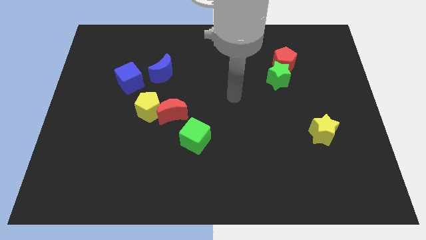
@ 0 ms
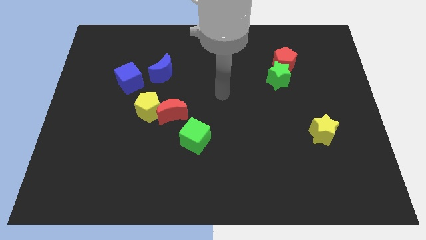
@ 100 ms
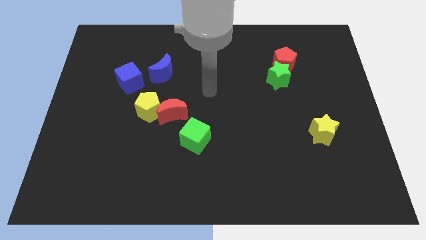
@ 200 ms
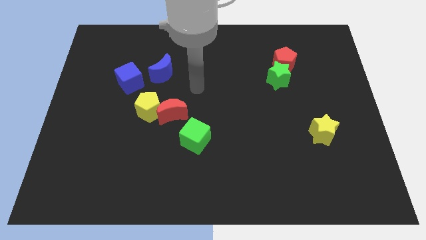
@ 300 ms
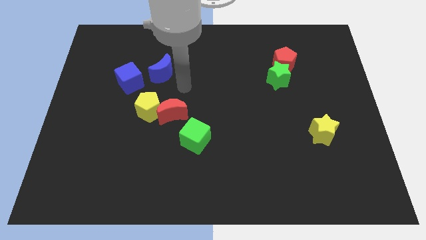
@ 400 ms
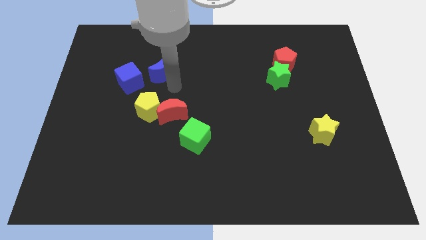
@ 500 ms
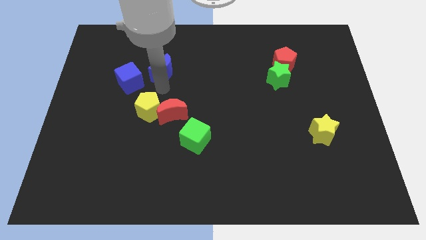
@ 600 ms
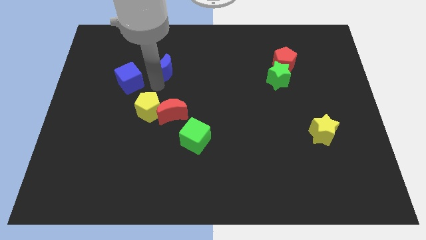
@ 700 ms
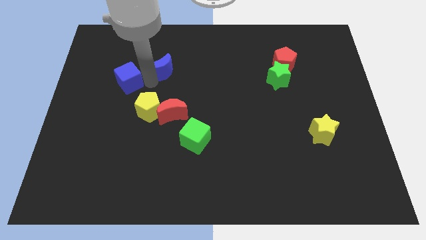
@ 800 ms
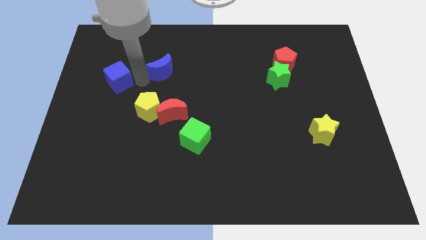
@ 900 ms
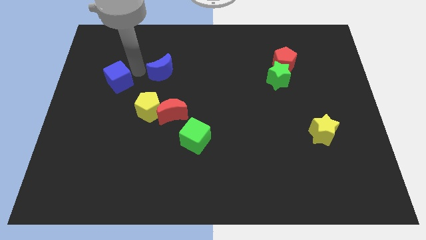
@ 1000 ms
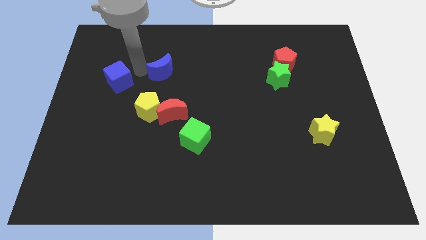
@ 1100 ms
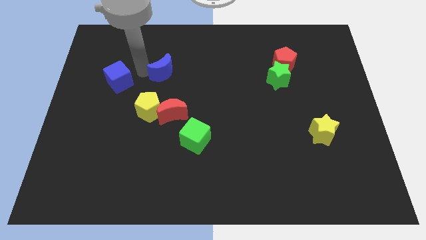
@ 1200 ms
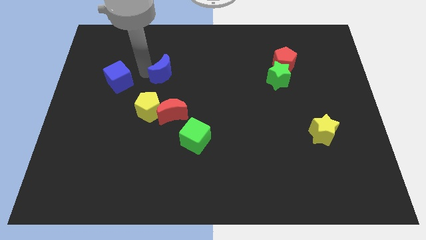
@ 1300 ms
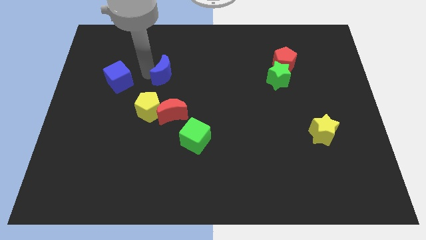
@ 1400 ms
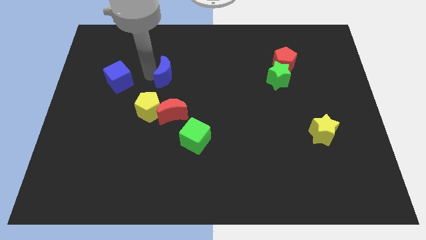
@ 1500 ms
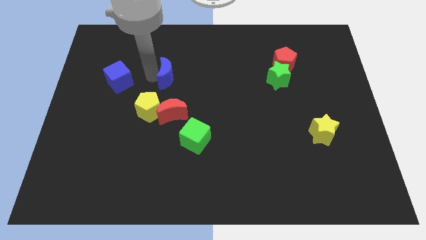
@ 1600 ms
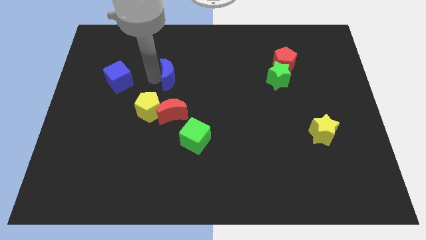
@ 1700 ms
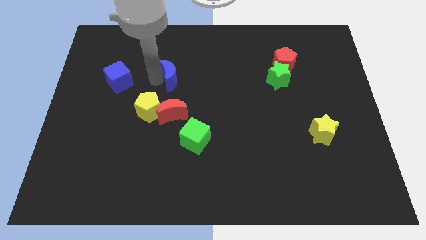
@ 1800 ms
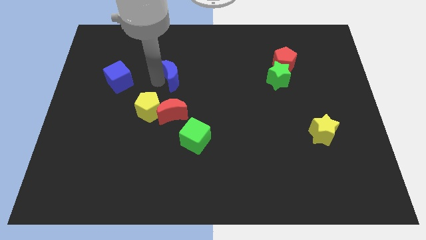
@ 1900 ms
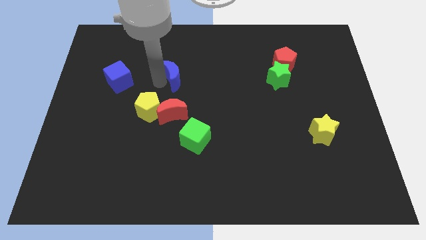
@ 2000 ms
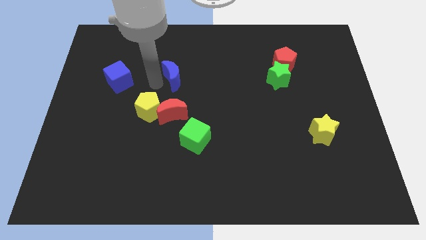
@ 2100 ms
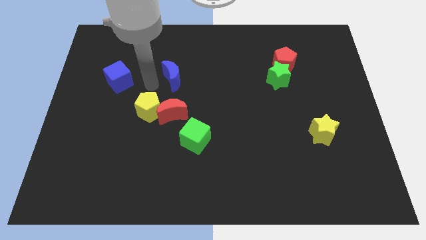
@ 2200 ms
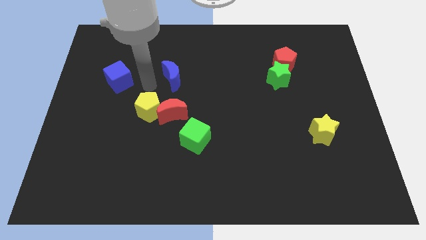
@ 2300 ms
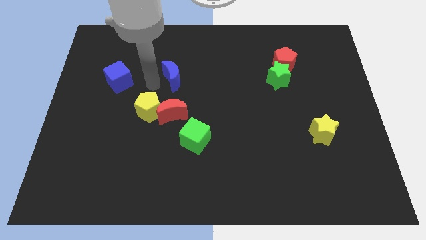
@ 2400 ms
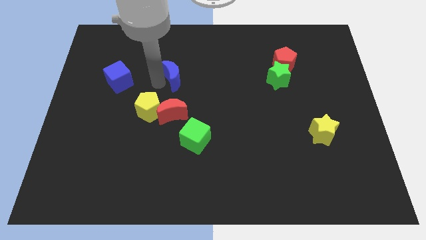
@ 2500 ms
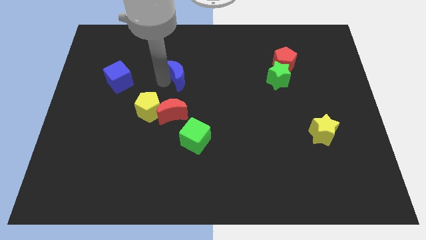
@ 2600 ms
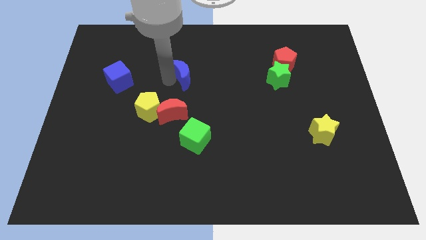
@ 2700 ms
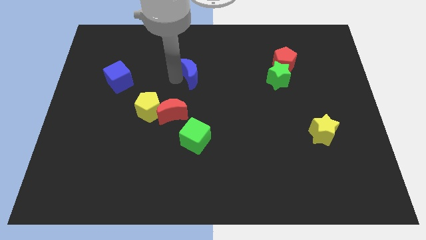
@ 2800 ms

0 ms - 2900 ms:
push the blue moon a little bit to the right

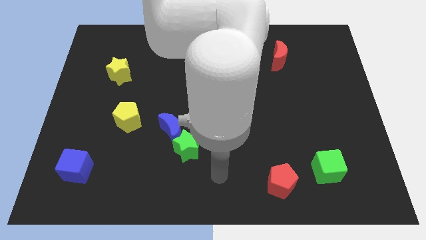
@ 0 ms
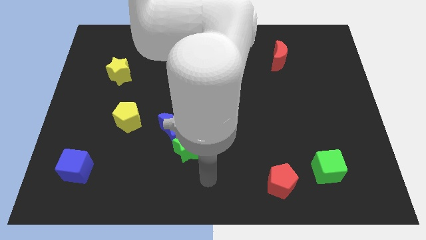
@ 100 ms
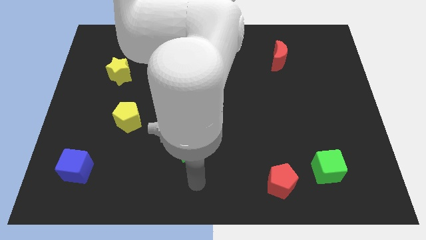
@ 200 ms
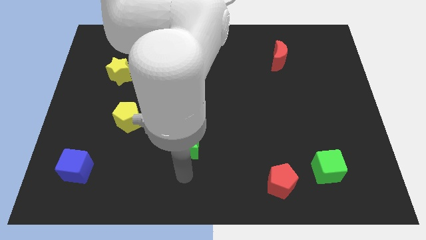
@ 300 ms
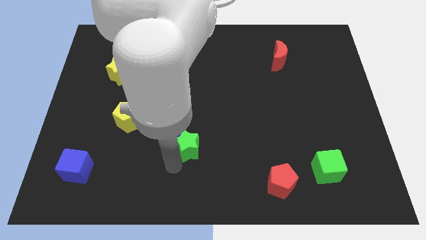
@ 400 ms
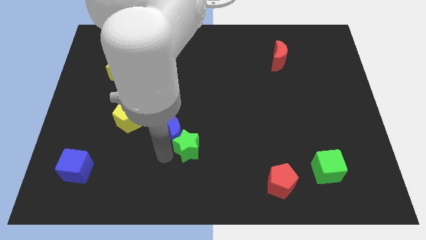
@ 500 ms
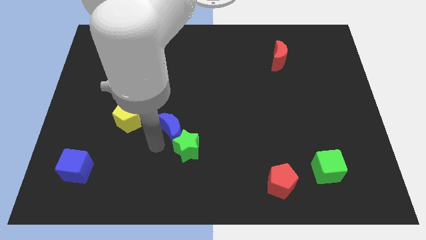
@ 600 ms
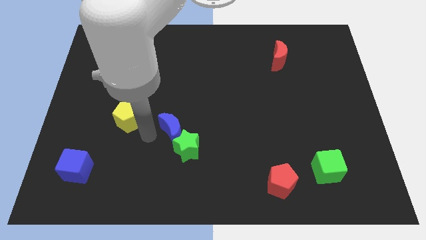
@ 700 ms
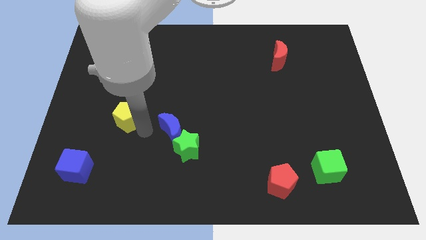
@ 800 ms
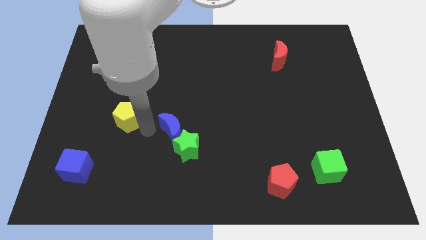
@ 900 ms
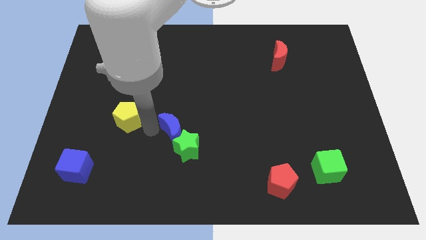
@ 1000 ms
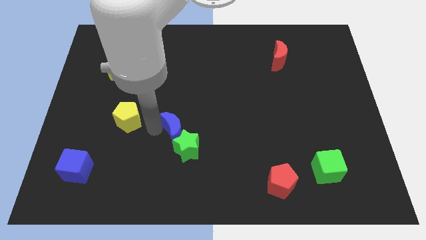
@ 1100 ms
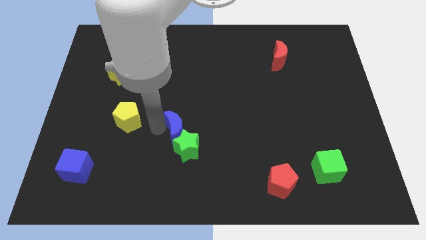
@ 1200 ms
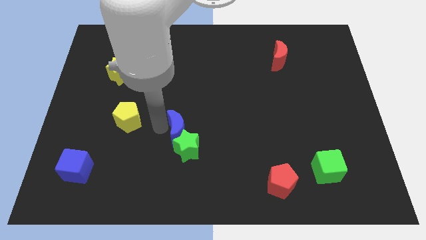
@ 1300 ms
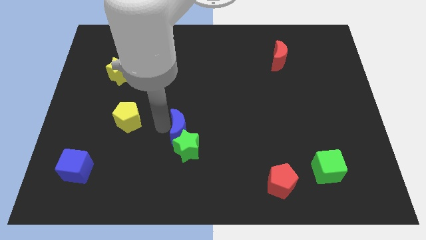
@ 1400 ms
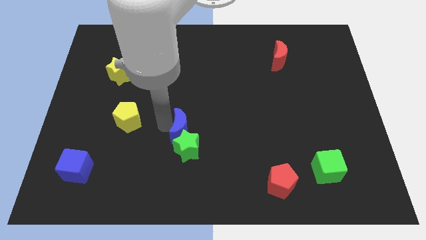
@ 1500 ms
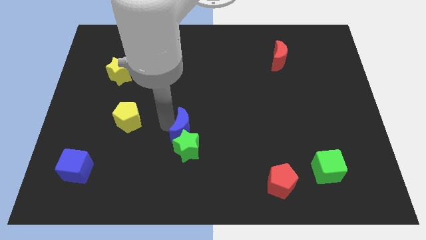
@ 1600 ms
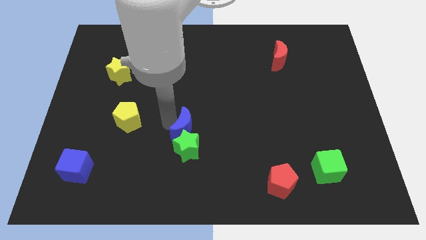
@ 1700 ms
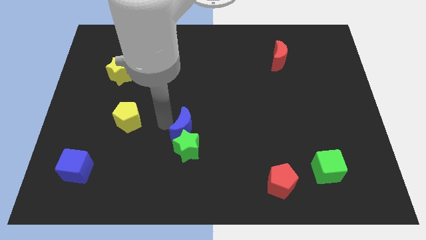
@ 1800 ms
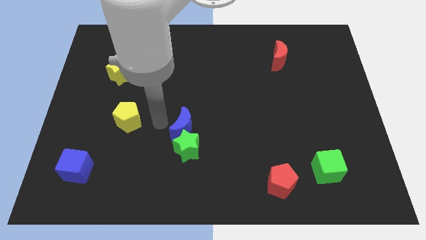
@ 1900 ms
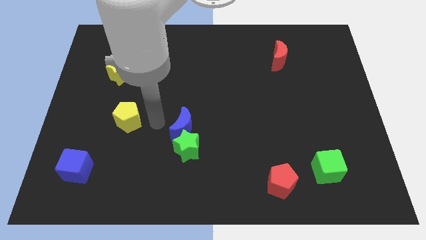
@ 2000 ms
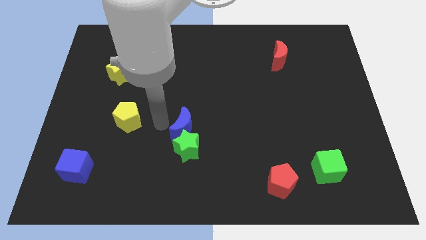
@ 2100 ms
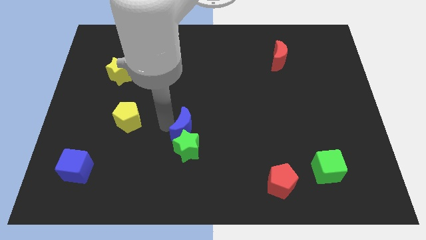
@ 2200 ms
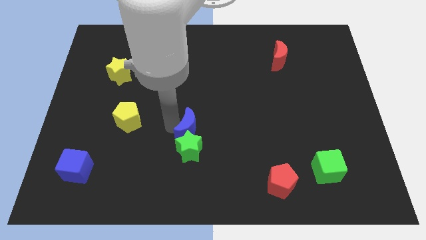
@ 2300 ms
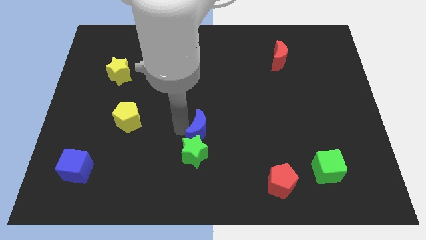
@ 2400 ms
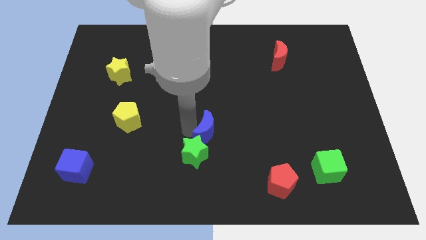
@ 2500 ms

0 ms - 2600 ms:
slide the blue moon right somewhat

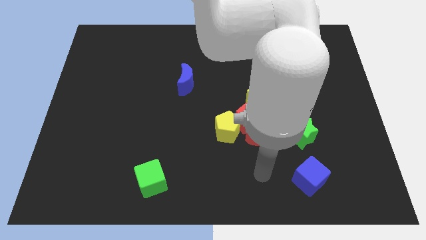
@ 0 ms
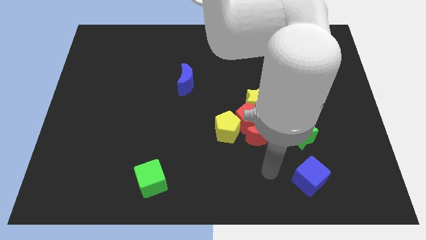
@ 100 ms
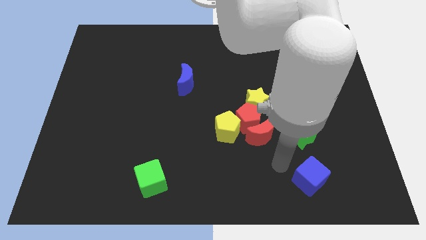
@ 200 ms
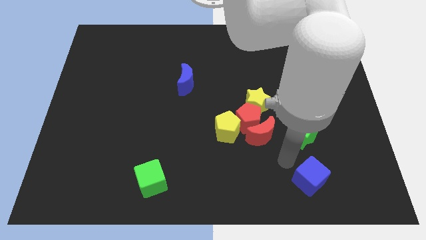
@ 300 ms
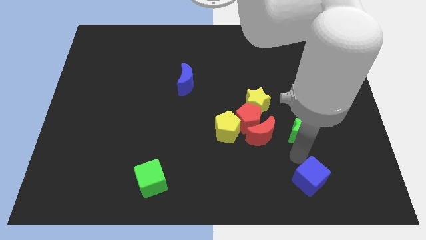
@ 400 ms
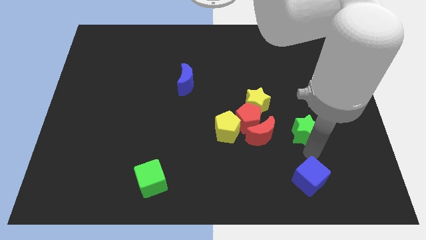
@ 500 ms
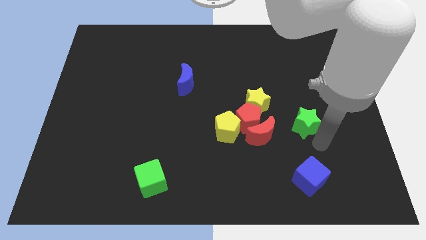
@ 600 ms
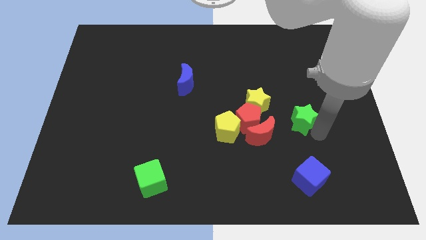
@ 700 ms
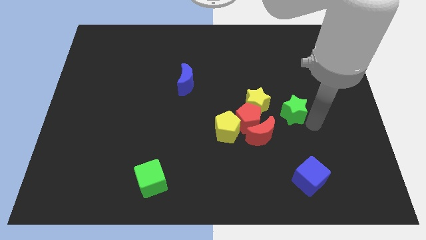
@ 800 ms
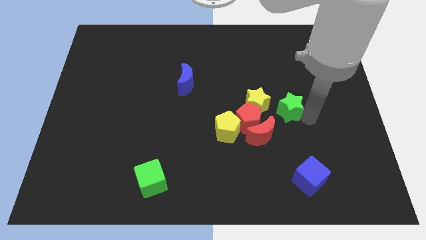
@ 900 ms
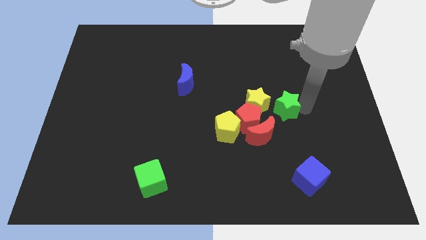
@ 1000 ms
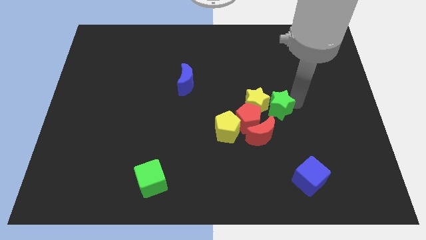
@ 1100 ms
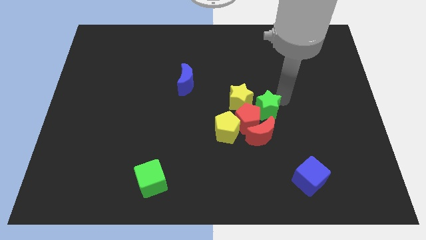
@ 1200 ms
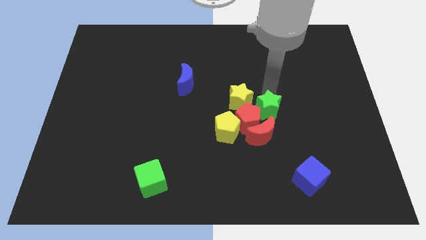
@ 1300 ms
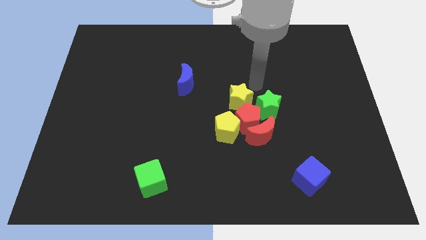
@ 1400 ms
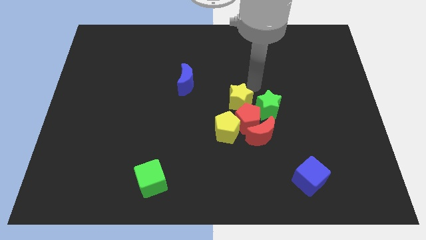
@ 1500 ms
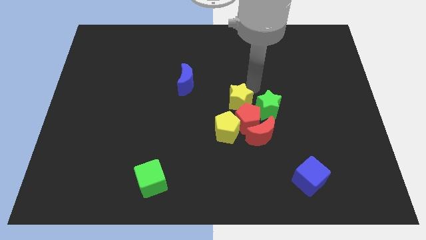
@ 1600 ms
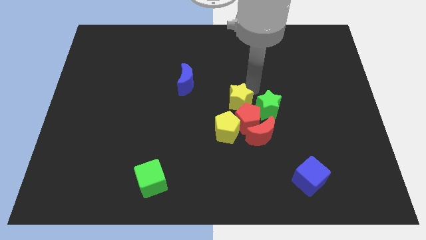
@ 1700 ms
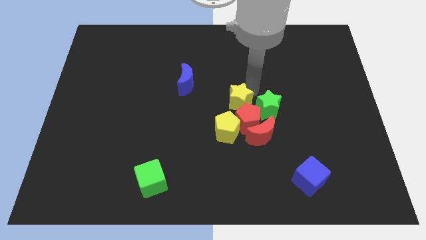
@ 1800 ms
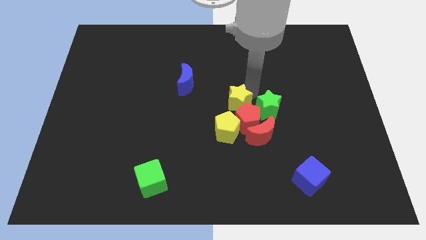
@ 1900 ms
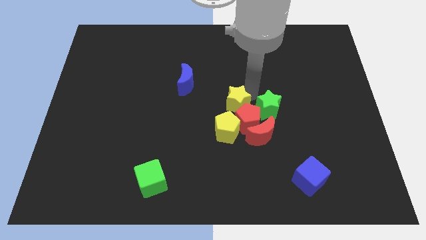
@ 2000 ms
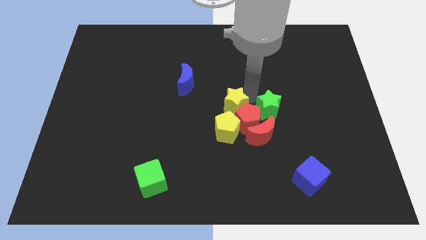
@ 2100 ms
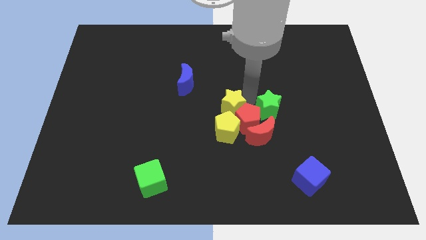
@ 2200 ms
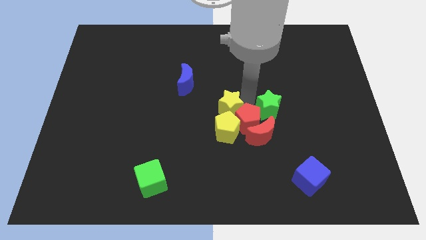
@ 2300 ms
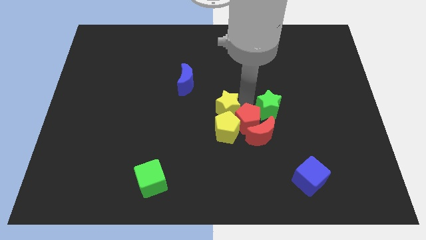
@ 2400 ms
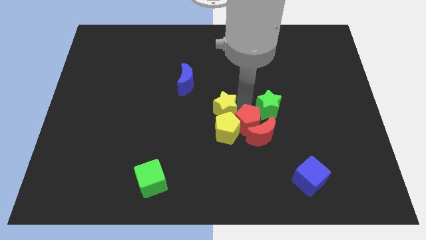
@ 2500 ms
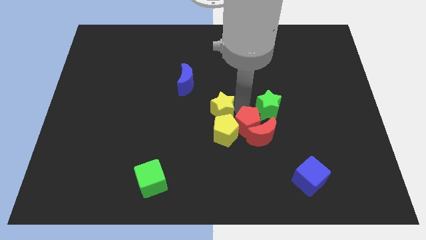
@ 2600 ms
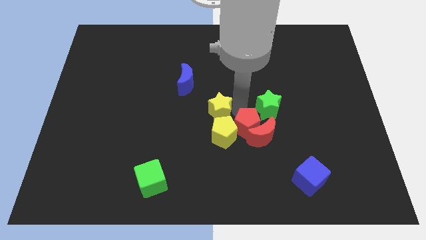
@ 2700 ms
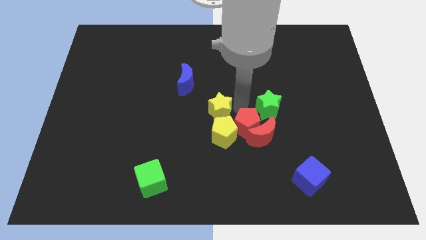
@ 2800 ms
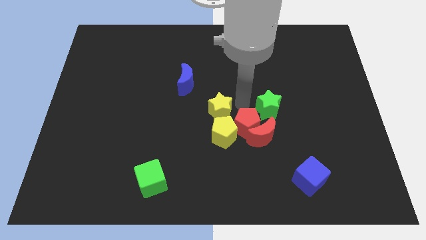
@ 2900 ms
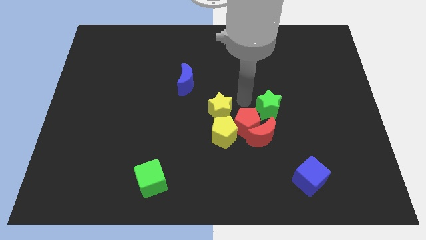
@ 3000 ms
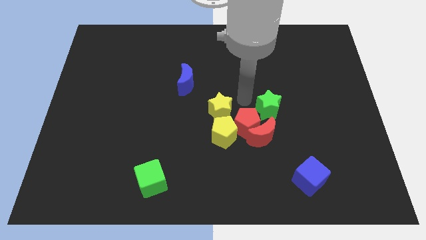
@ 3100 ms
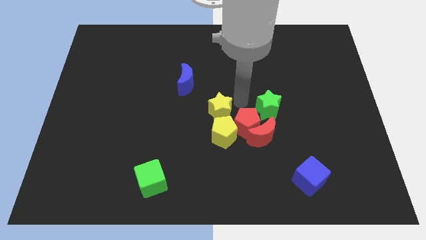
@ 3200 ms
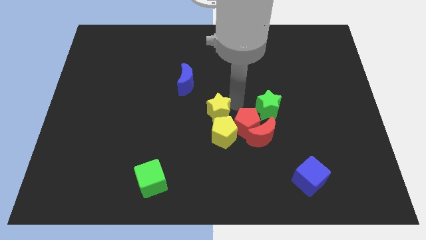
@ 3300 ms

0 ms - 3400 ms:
slightly move the yellow star down and then to the left
